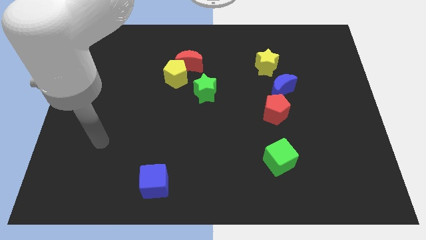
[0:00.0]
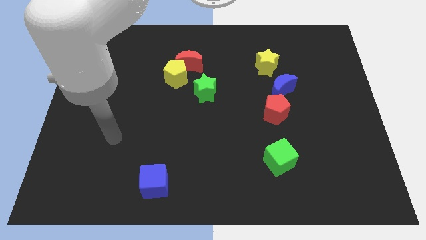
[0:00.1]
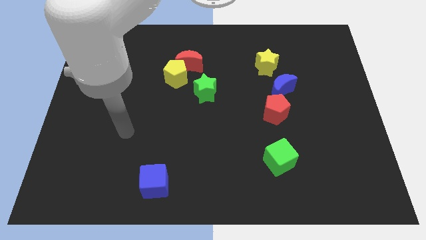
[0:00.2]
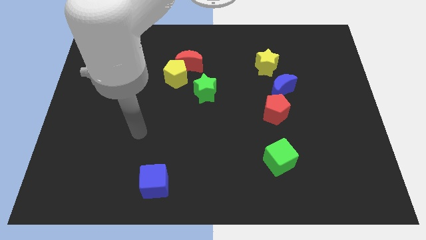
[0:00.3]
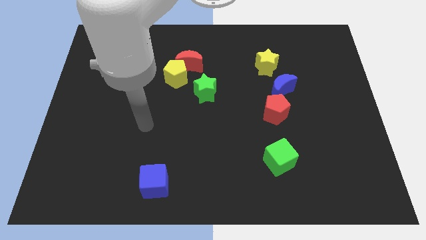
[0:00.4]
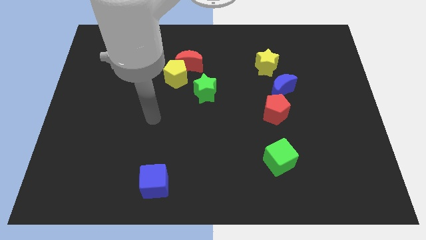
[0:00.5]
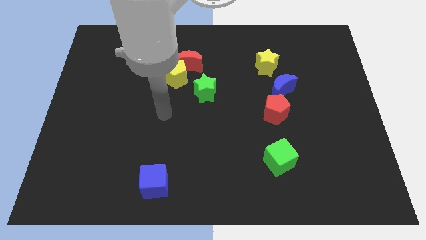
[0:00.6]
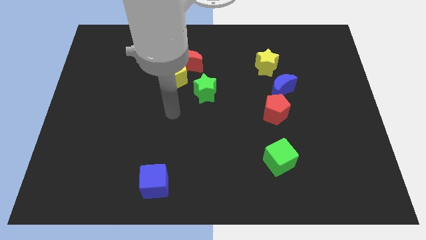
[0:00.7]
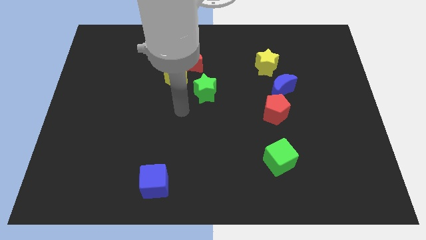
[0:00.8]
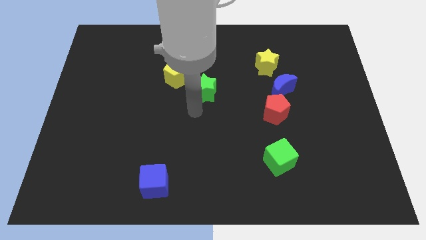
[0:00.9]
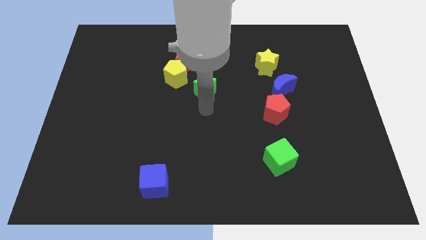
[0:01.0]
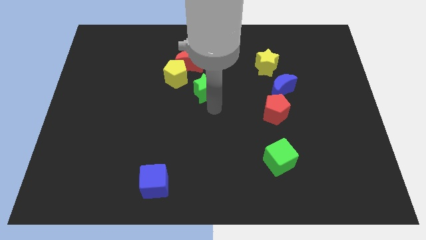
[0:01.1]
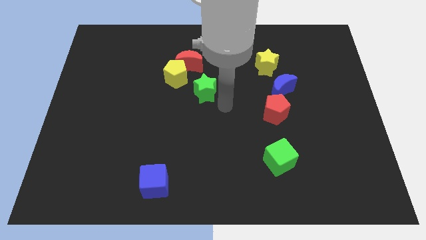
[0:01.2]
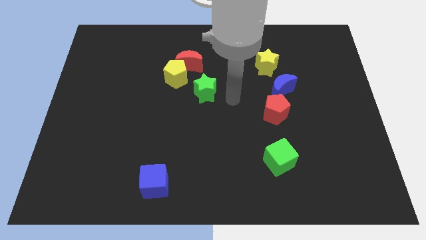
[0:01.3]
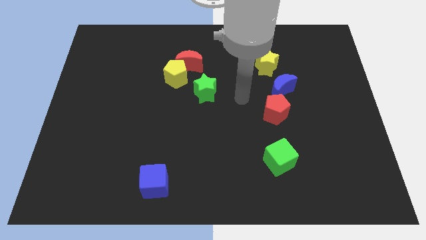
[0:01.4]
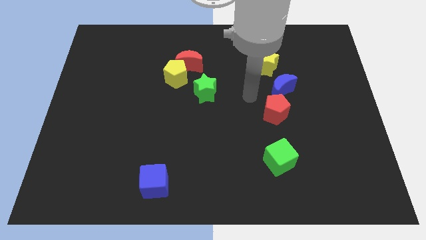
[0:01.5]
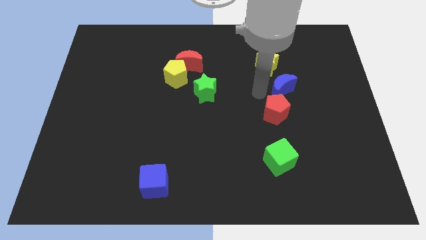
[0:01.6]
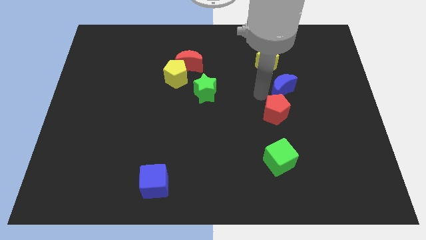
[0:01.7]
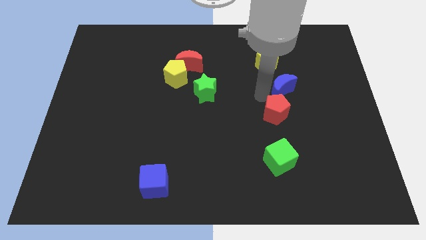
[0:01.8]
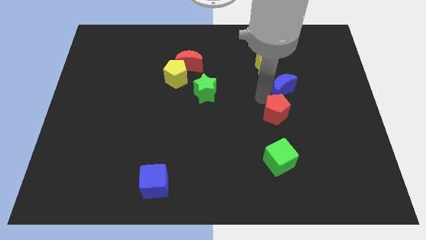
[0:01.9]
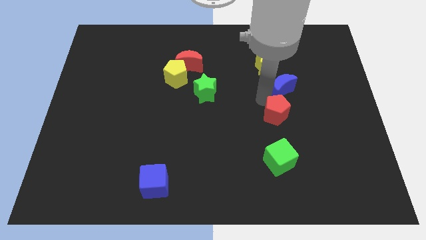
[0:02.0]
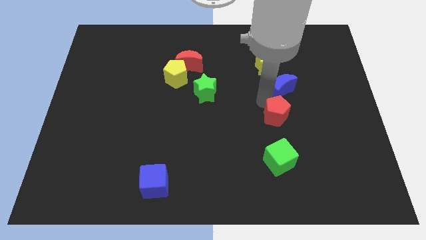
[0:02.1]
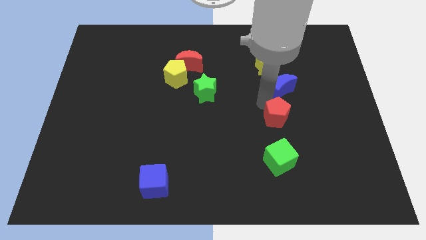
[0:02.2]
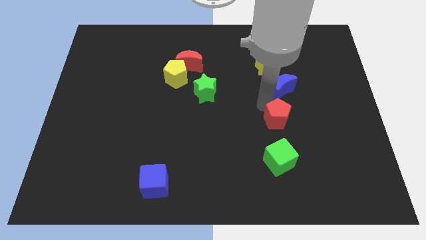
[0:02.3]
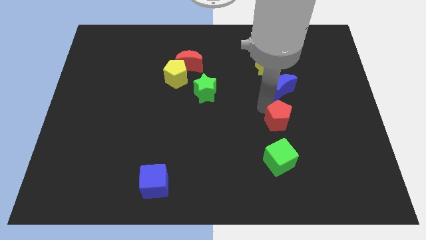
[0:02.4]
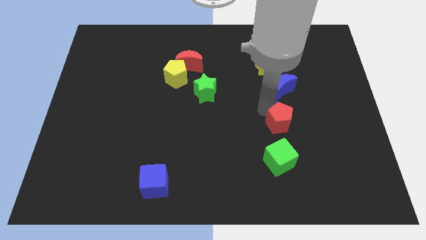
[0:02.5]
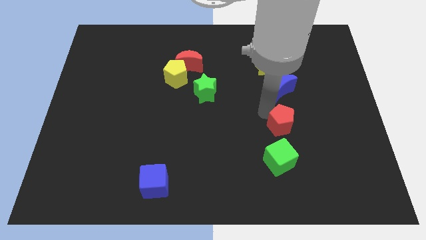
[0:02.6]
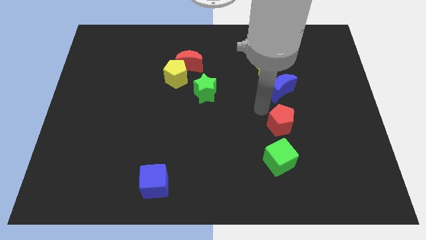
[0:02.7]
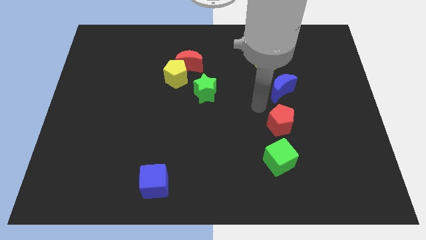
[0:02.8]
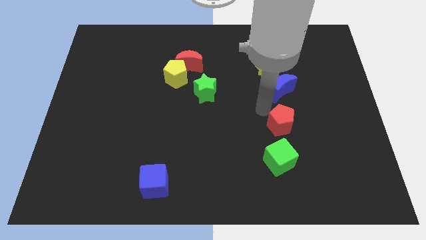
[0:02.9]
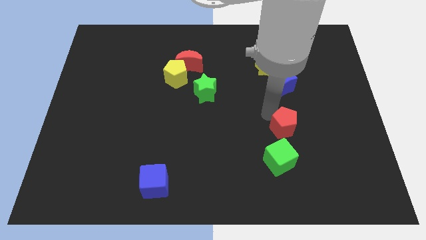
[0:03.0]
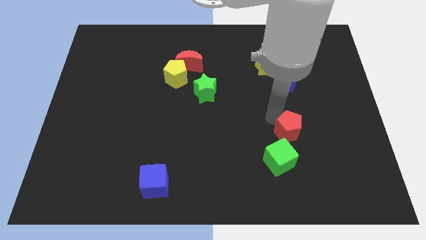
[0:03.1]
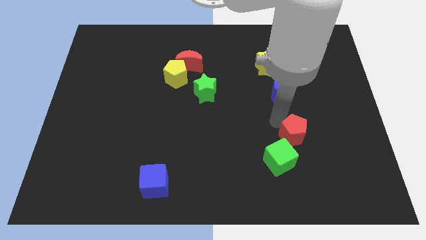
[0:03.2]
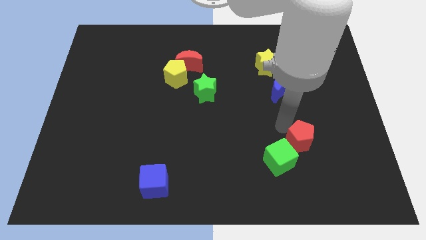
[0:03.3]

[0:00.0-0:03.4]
slide the red pentagon a little bit diagonally down and to the right

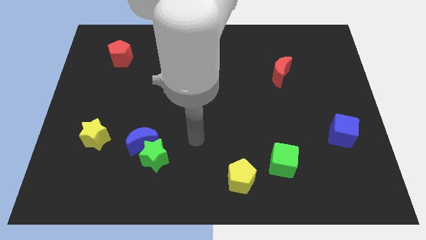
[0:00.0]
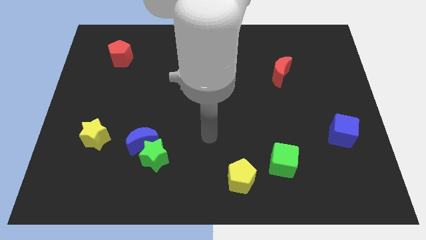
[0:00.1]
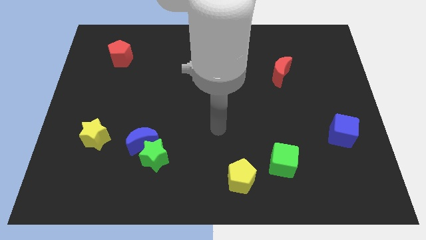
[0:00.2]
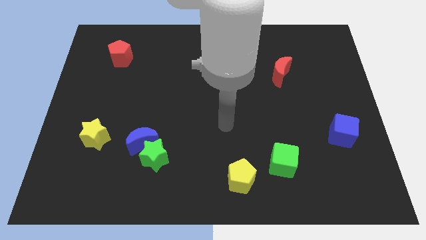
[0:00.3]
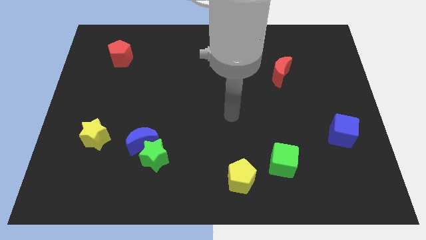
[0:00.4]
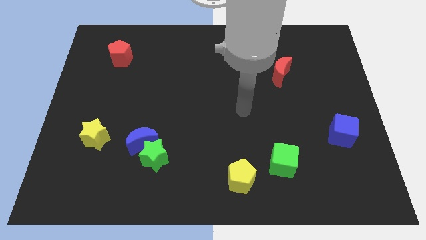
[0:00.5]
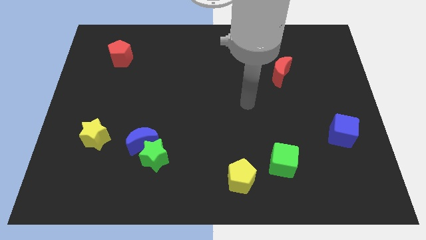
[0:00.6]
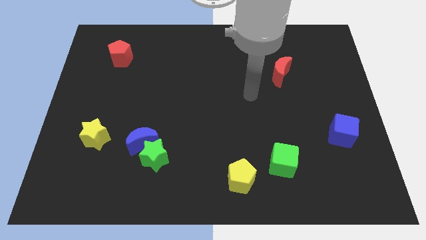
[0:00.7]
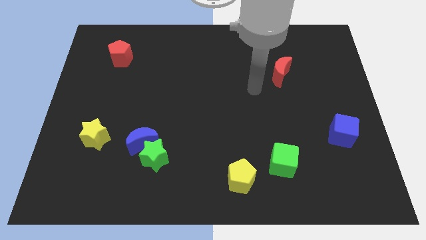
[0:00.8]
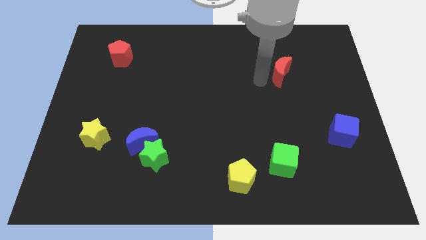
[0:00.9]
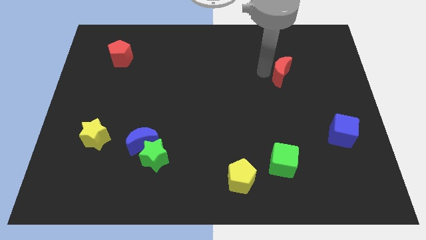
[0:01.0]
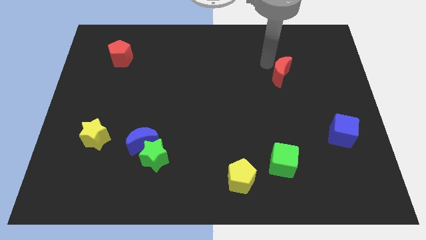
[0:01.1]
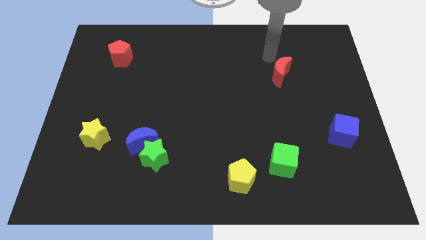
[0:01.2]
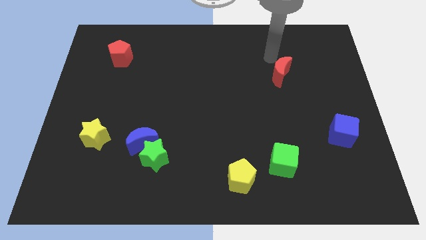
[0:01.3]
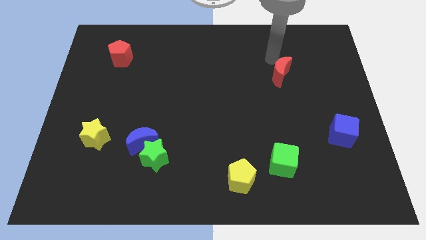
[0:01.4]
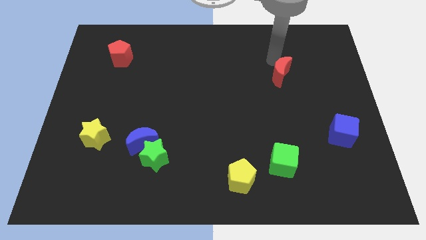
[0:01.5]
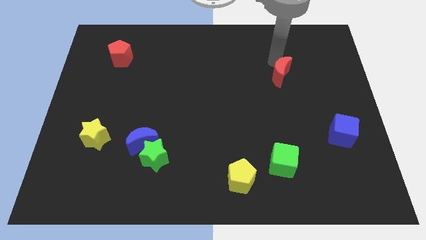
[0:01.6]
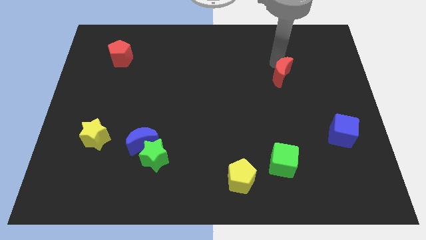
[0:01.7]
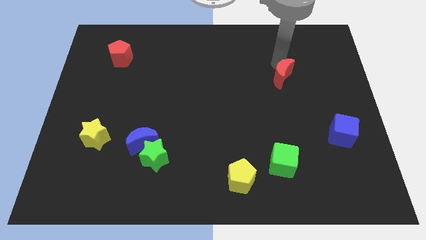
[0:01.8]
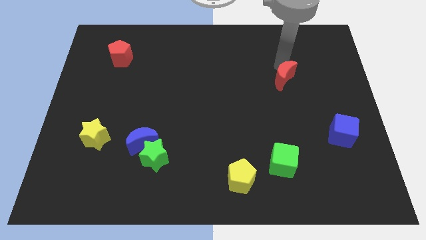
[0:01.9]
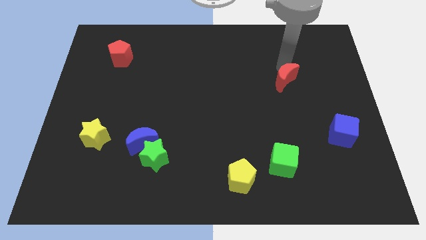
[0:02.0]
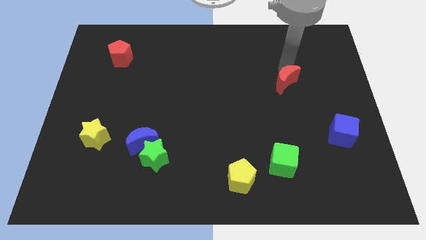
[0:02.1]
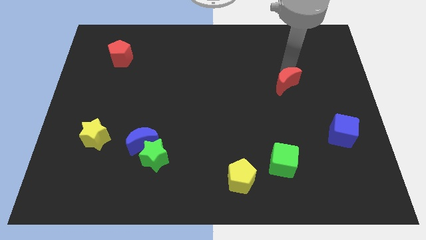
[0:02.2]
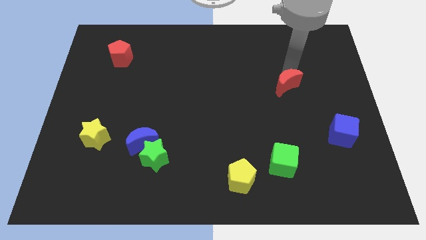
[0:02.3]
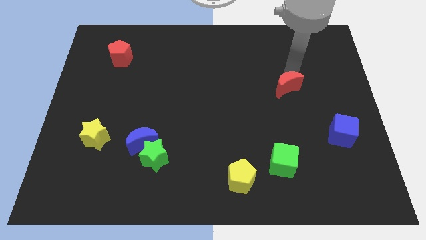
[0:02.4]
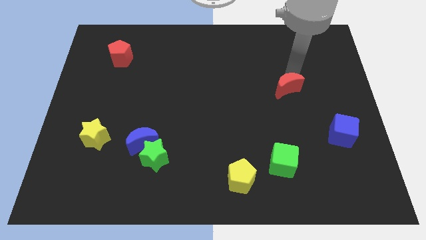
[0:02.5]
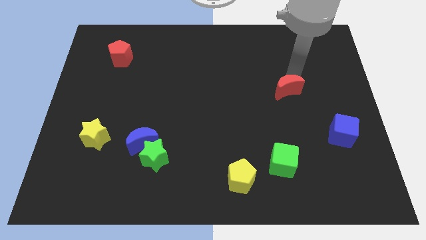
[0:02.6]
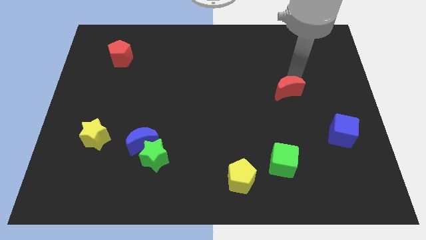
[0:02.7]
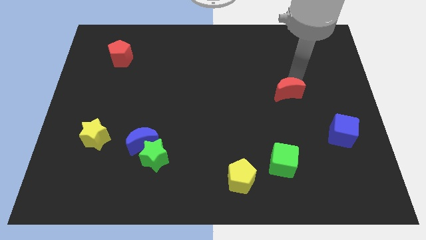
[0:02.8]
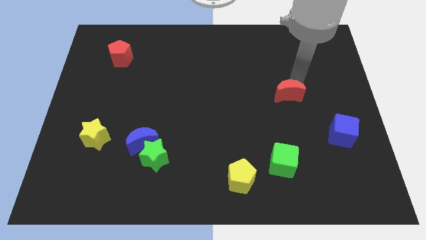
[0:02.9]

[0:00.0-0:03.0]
slightly slide the red moon downwards

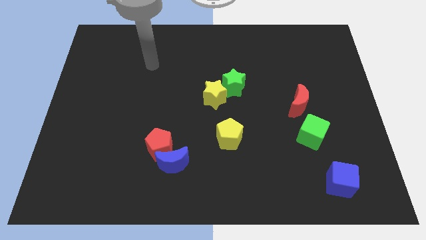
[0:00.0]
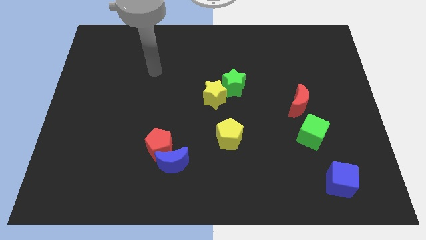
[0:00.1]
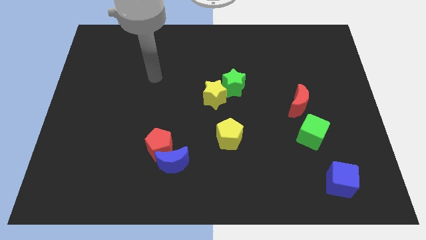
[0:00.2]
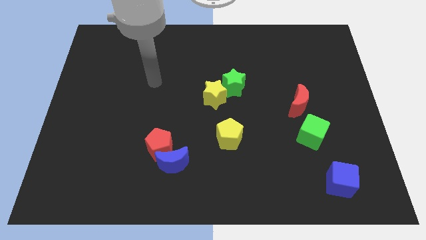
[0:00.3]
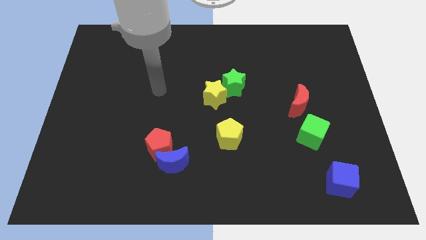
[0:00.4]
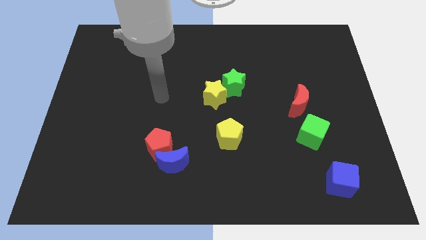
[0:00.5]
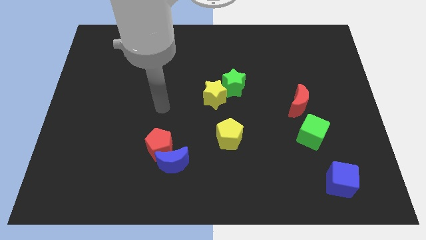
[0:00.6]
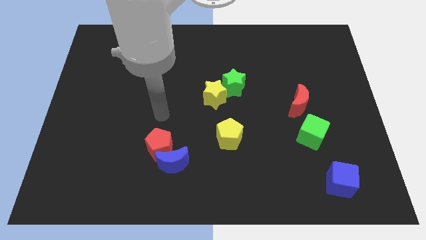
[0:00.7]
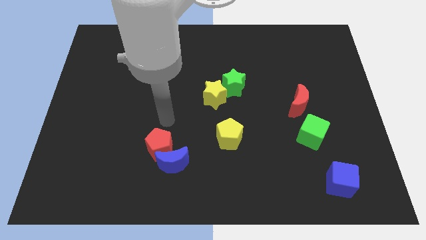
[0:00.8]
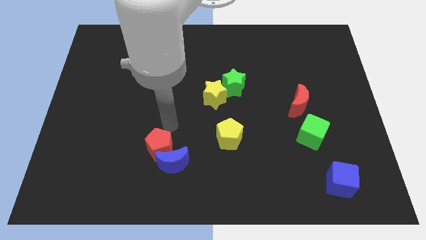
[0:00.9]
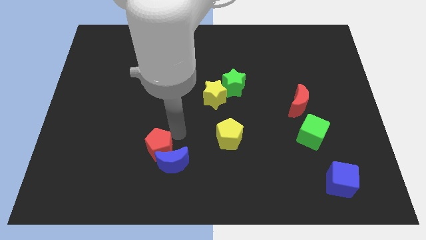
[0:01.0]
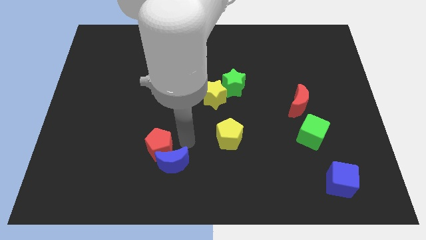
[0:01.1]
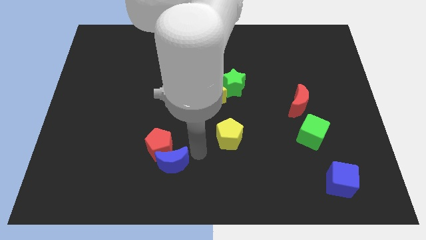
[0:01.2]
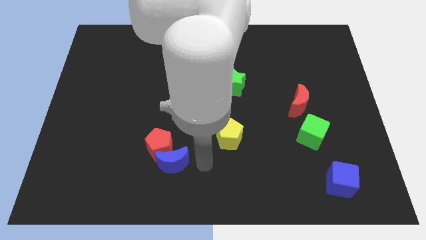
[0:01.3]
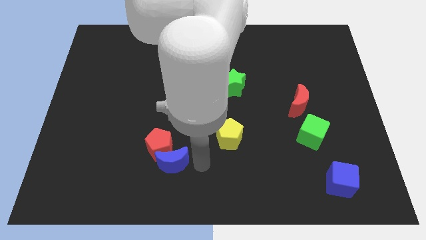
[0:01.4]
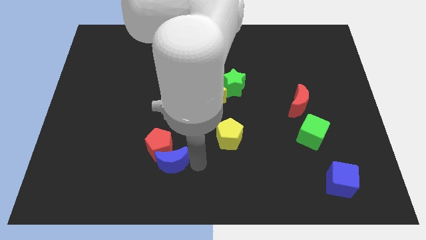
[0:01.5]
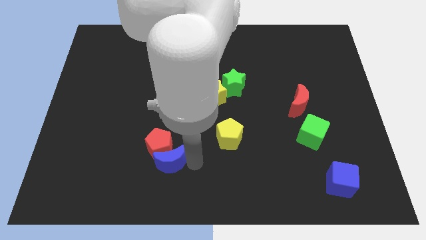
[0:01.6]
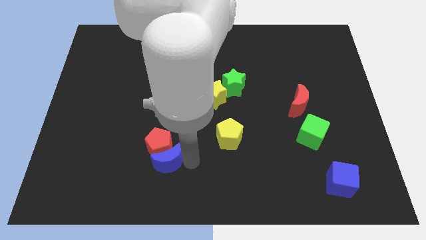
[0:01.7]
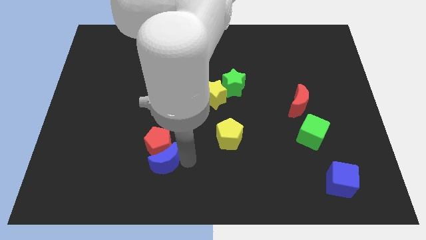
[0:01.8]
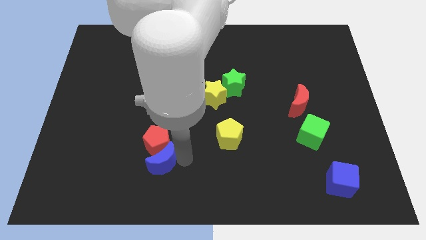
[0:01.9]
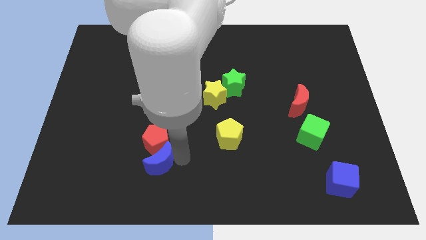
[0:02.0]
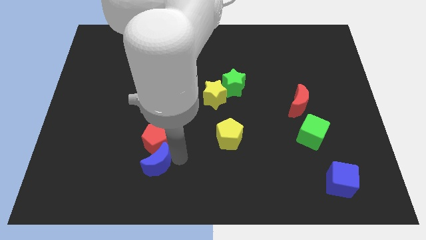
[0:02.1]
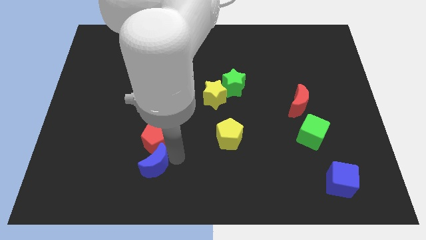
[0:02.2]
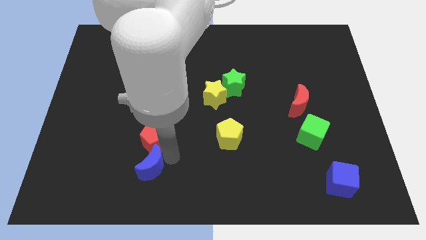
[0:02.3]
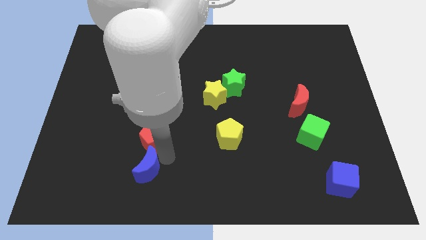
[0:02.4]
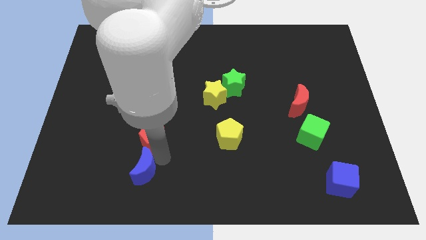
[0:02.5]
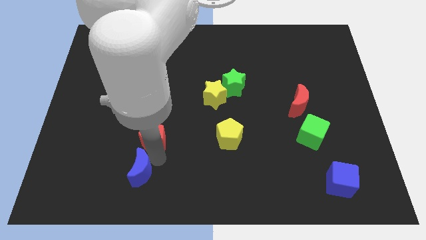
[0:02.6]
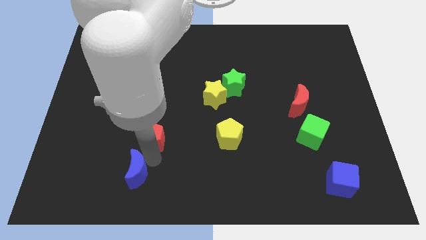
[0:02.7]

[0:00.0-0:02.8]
slightly move the blue moon to the left
